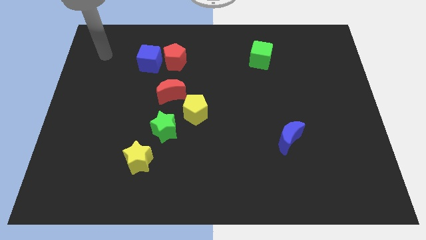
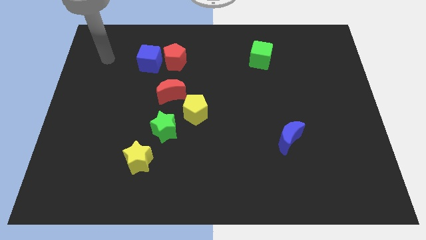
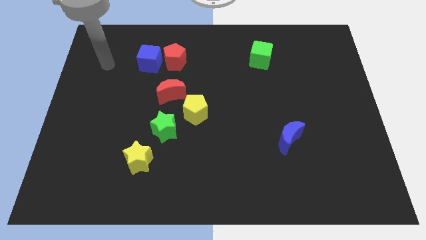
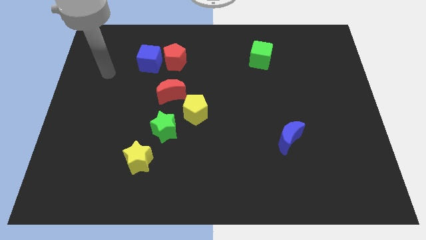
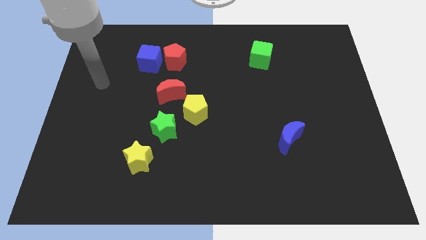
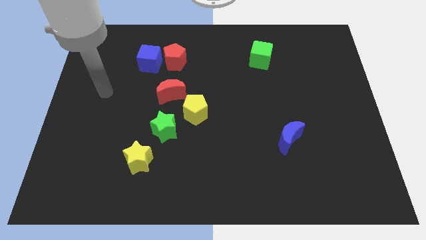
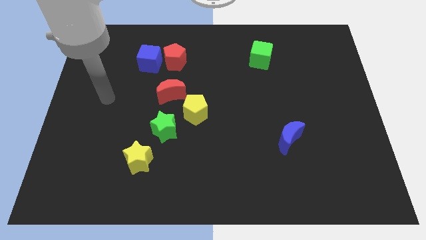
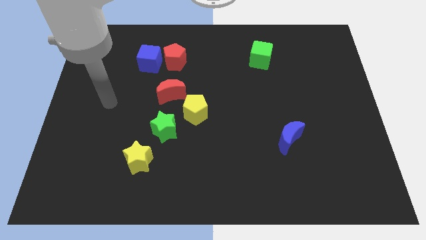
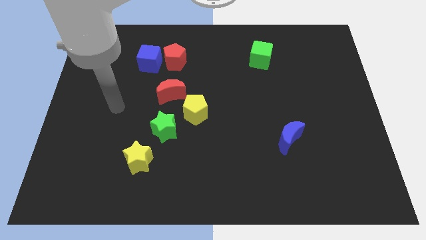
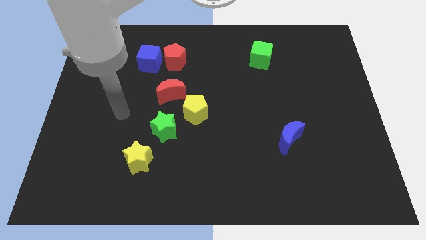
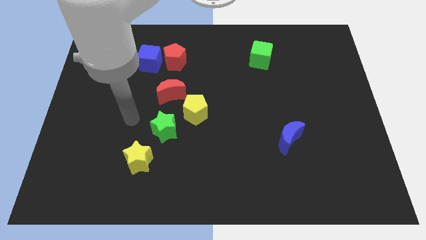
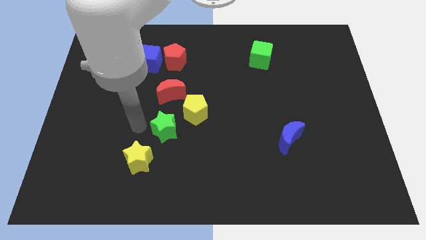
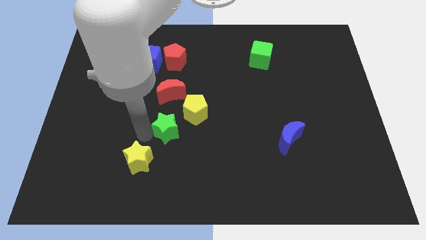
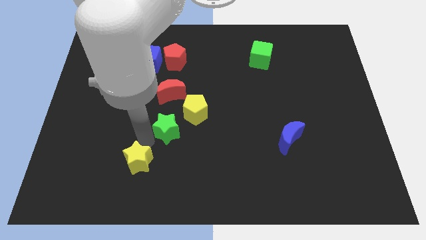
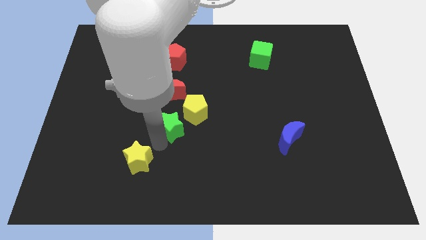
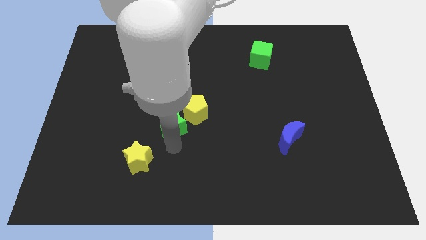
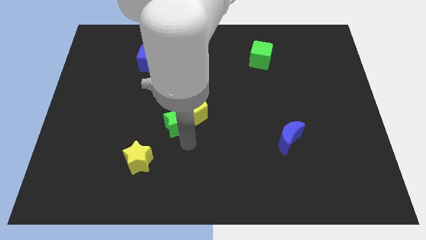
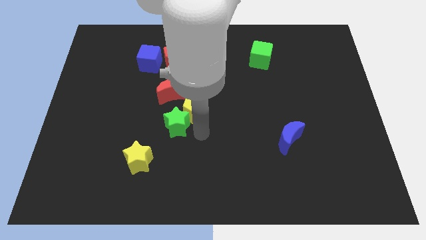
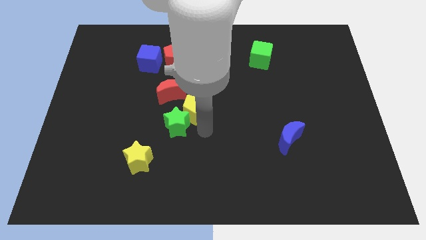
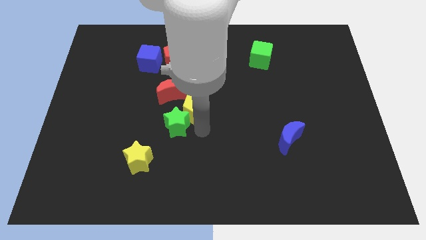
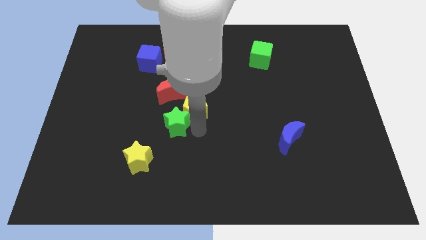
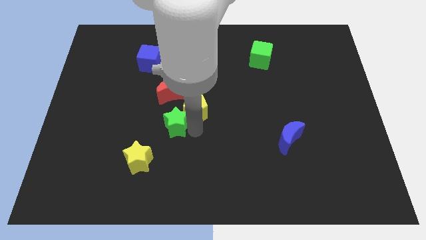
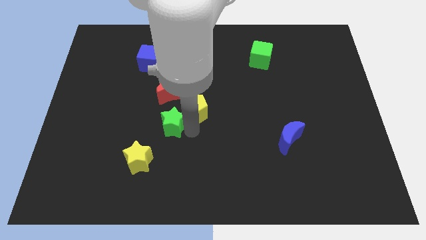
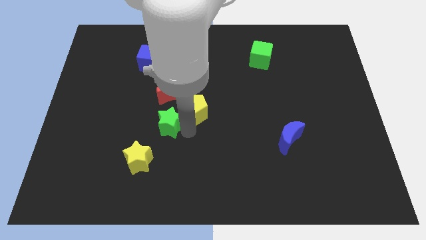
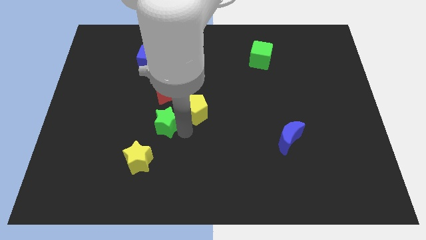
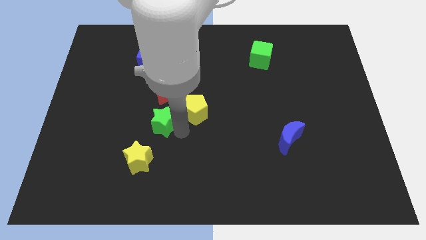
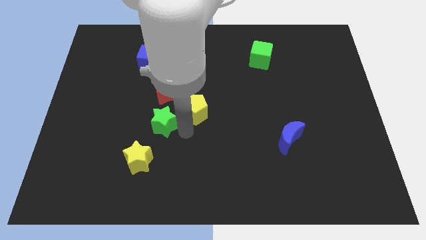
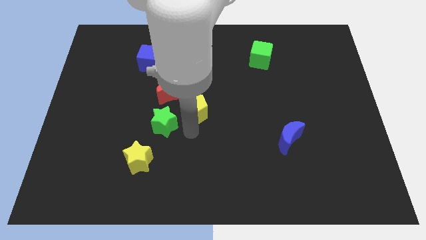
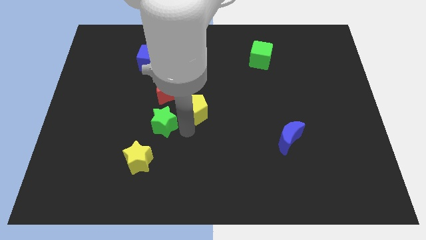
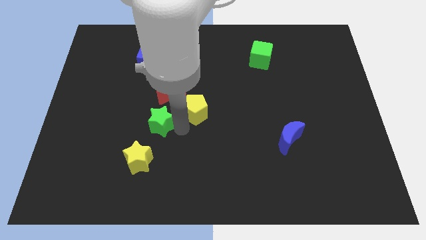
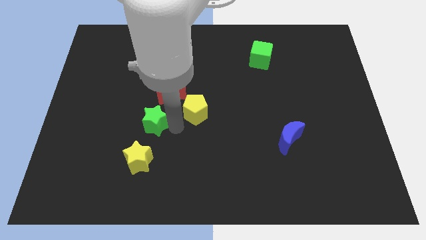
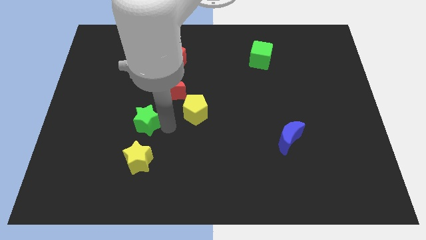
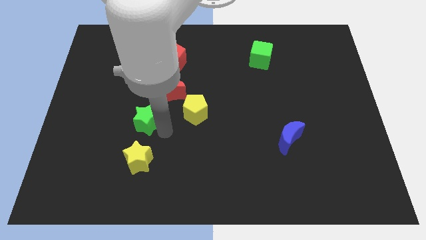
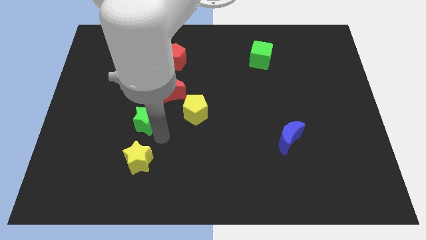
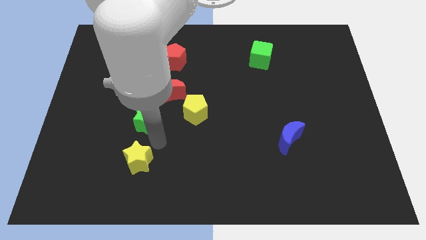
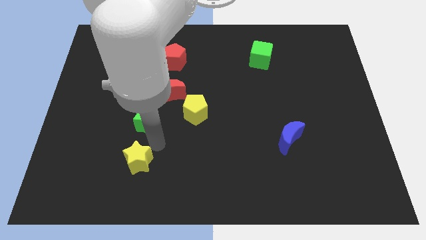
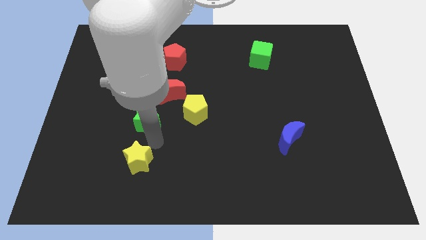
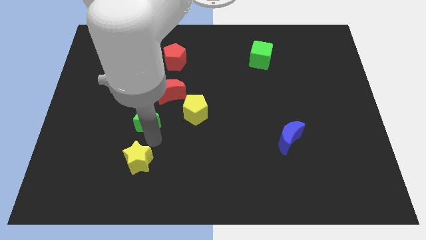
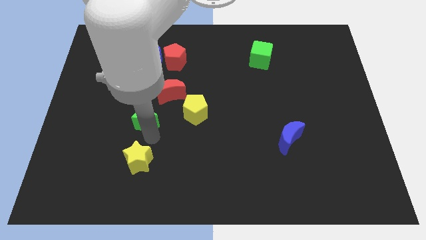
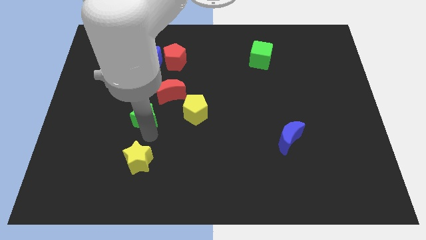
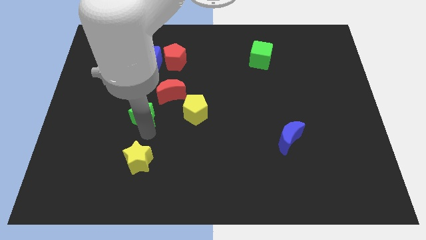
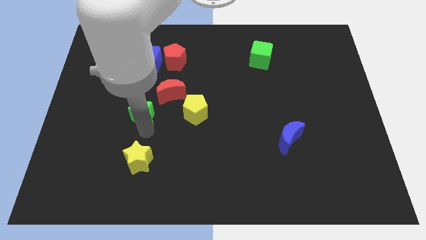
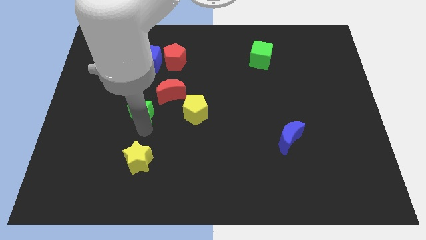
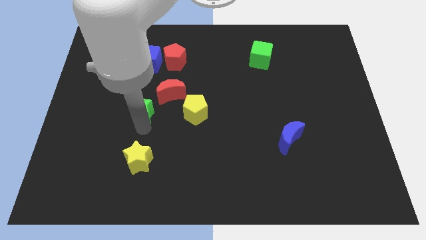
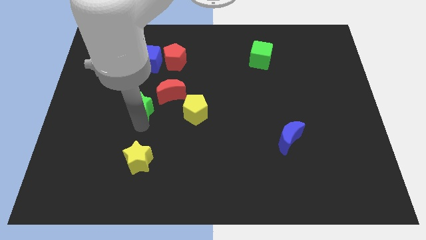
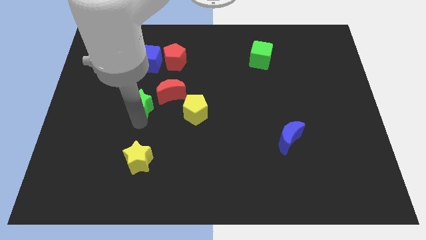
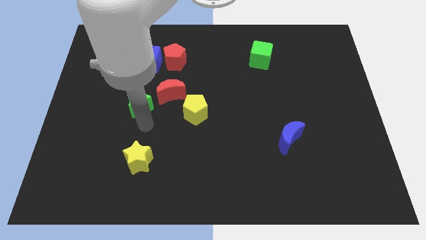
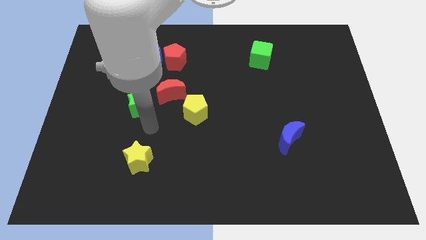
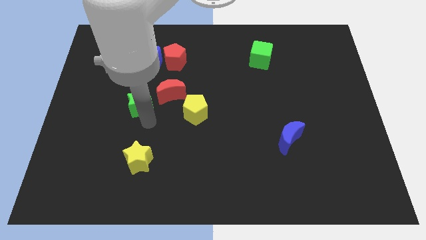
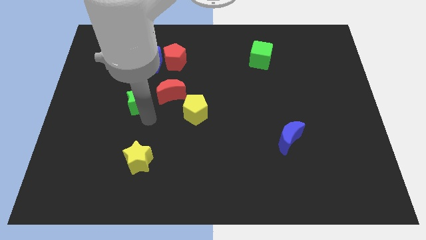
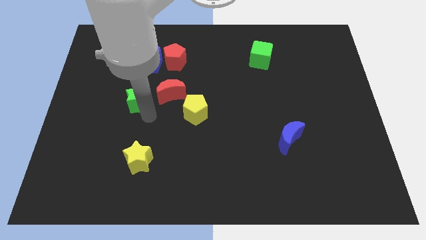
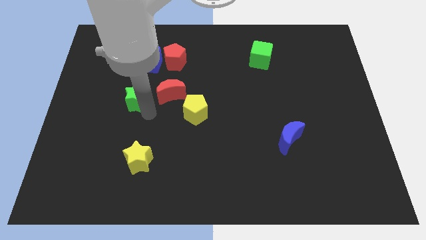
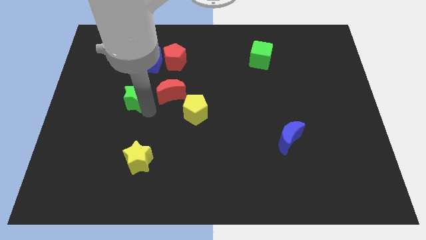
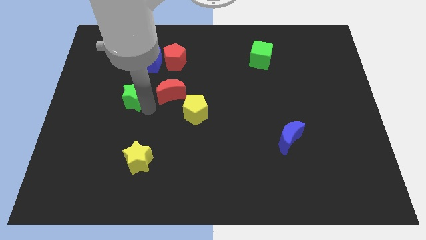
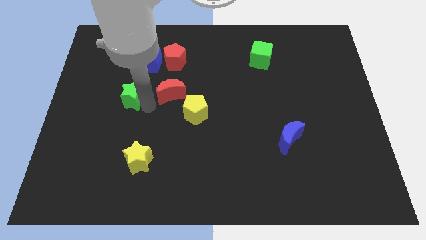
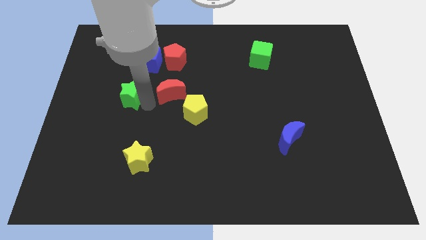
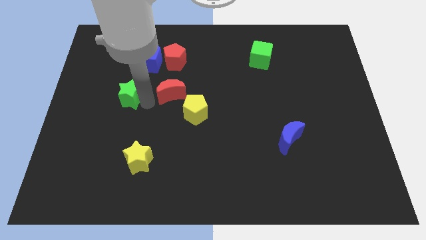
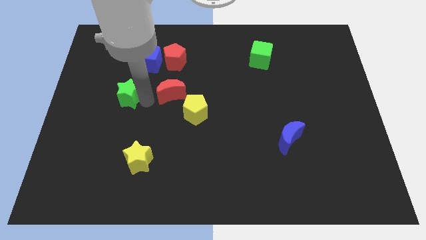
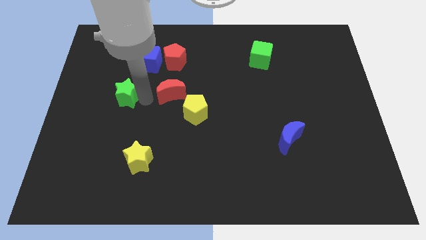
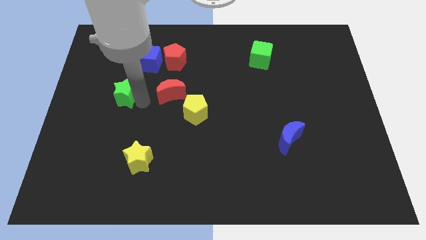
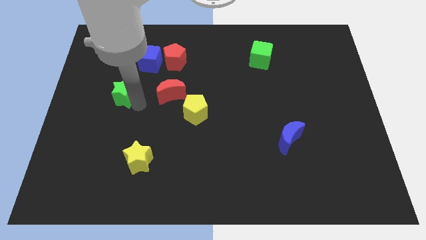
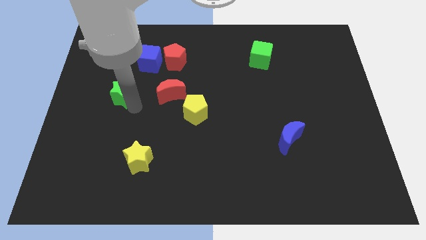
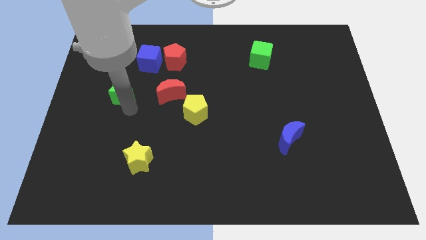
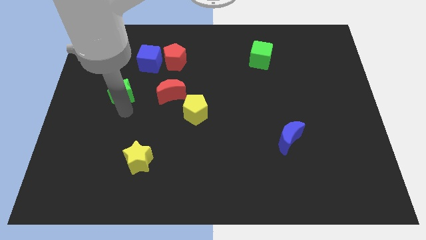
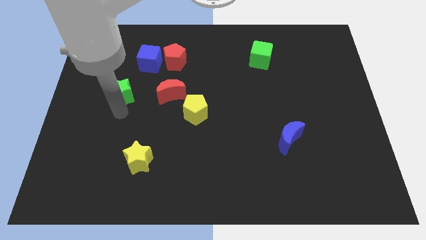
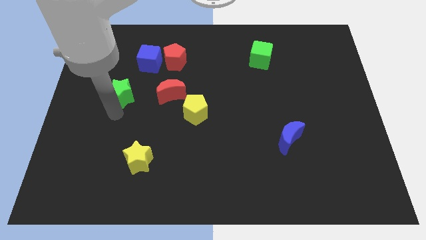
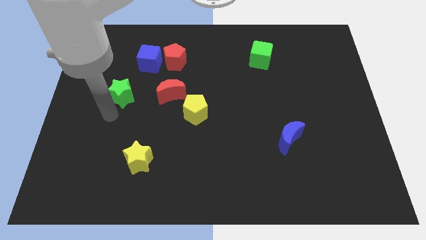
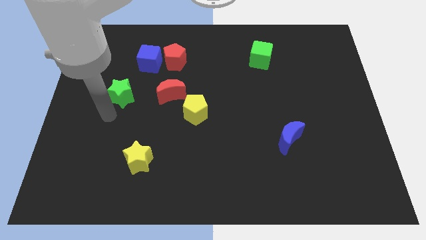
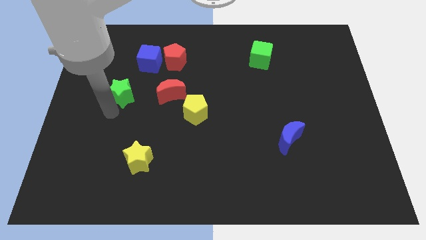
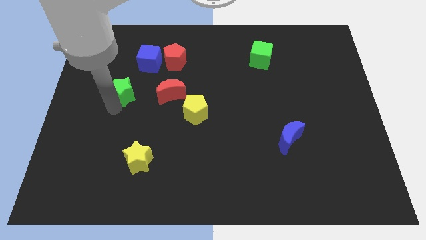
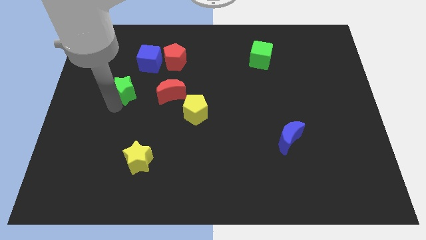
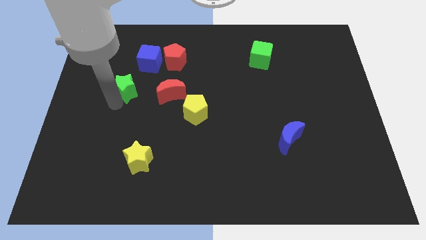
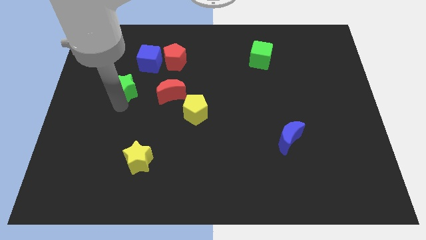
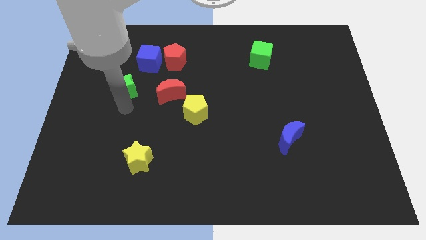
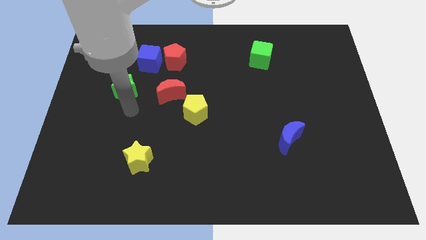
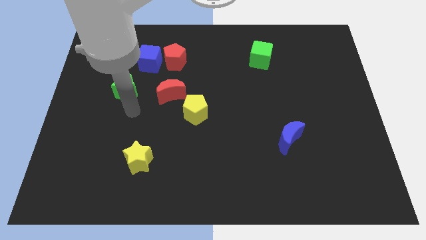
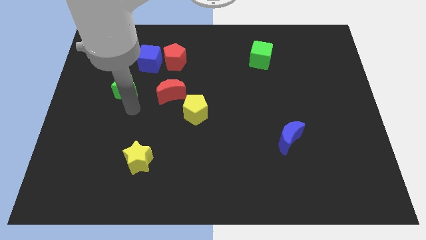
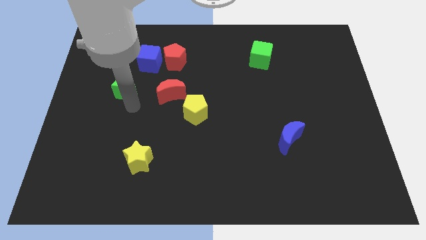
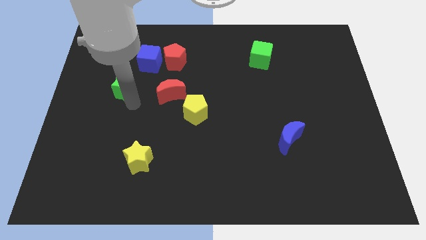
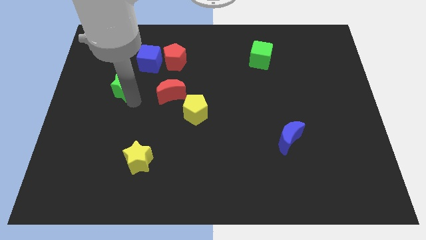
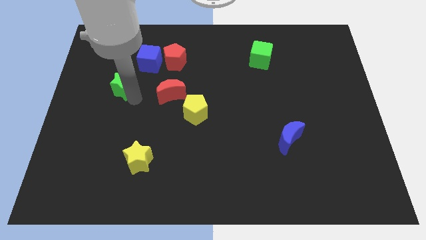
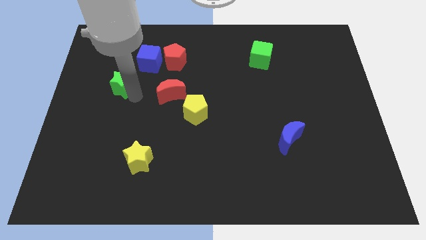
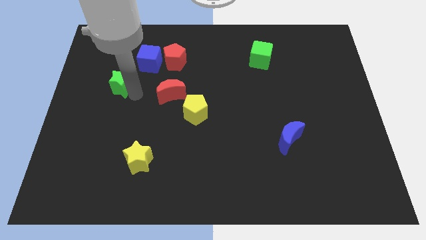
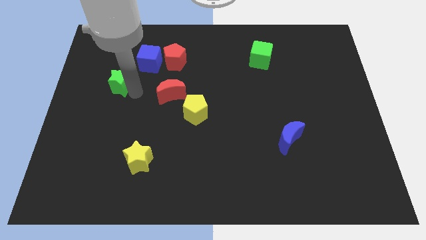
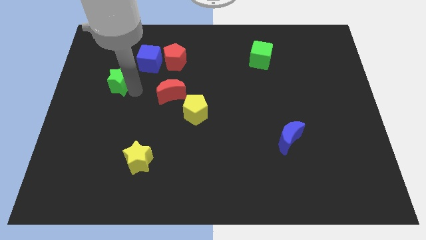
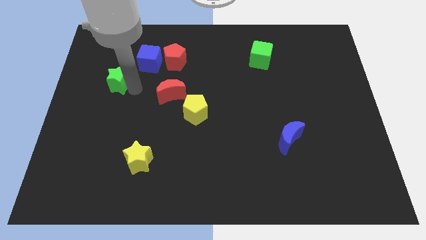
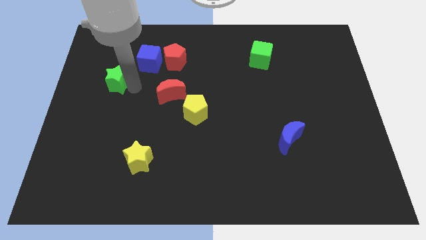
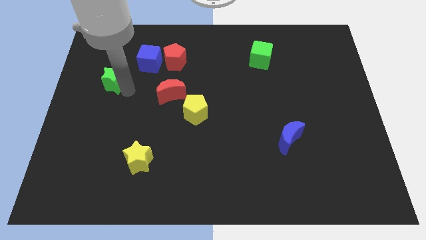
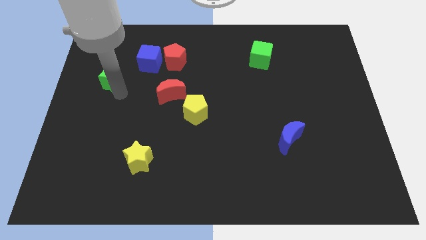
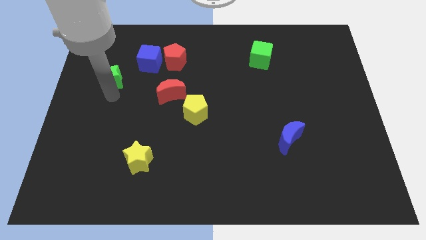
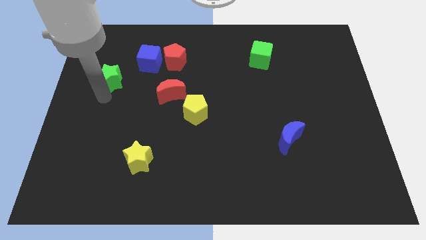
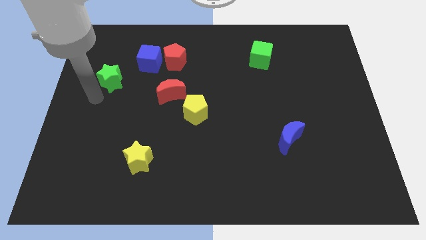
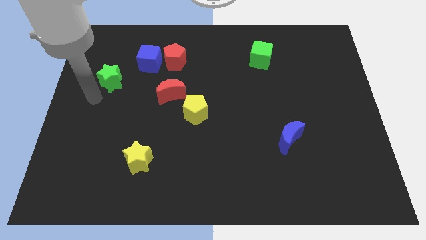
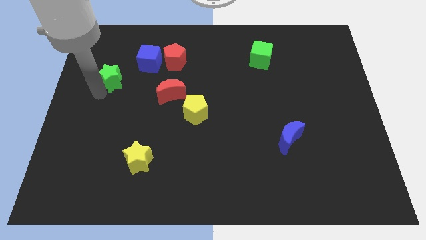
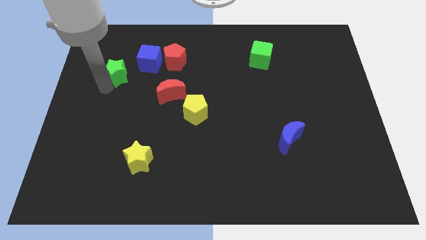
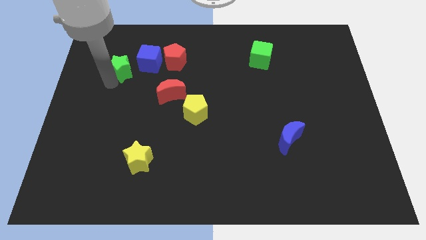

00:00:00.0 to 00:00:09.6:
slide the green star to the left side of the red pentagon
